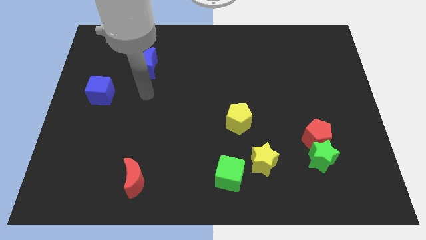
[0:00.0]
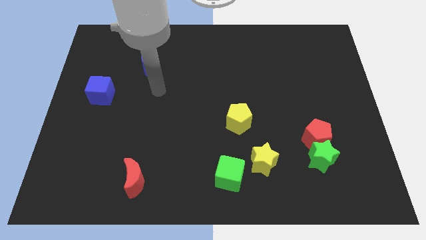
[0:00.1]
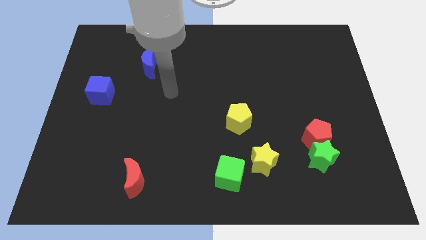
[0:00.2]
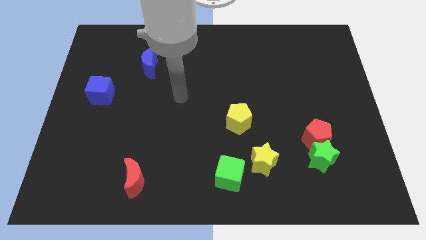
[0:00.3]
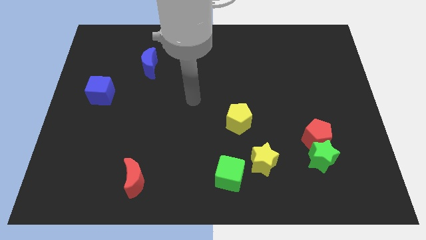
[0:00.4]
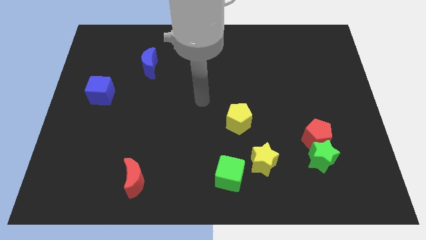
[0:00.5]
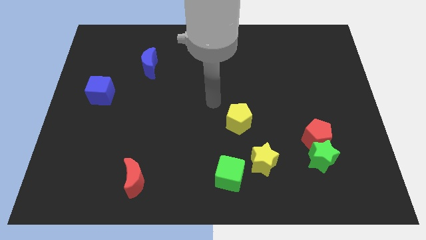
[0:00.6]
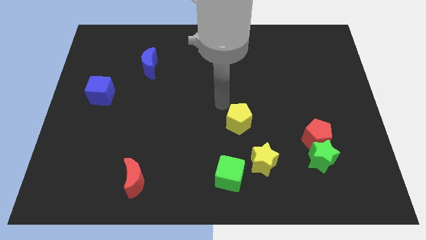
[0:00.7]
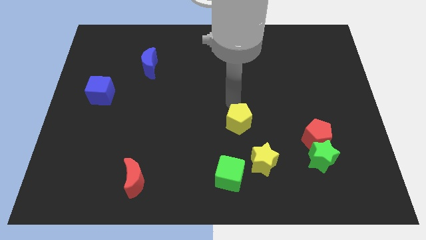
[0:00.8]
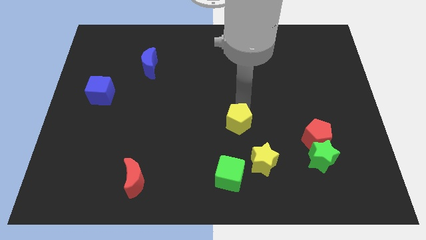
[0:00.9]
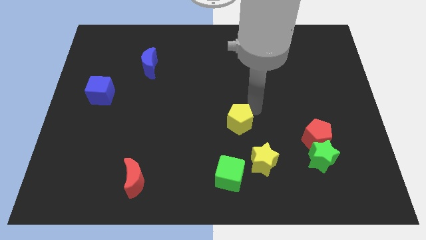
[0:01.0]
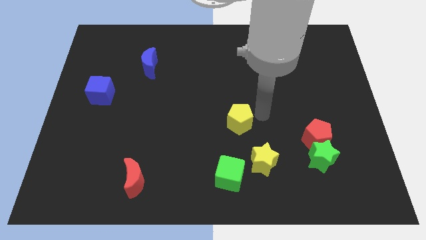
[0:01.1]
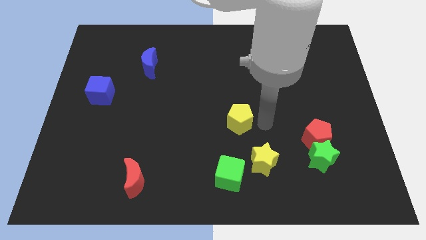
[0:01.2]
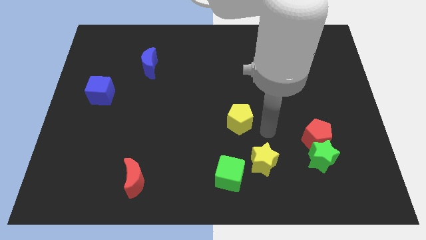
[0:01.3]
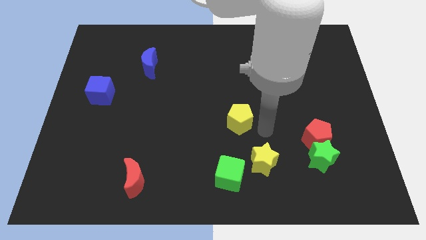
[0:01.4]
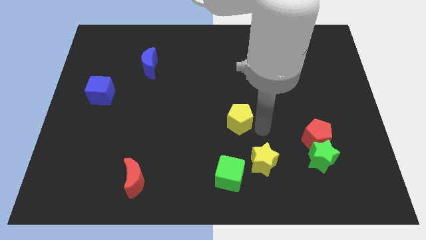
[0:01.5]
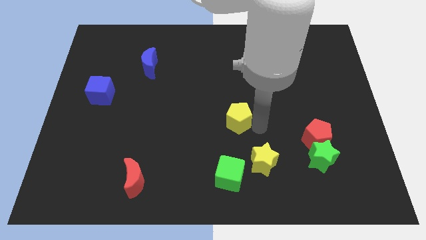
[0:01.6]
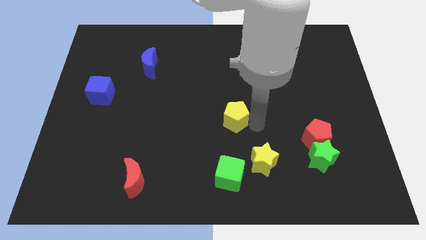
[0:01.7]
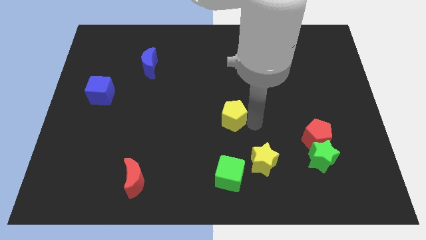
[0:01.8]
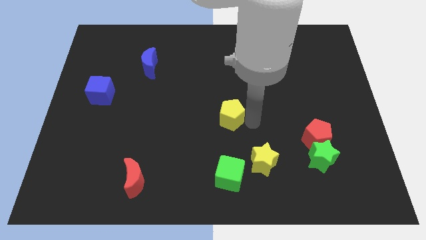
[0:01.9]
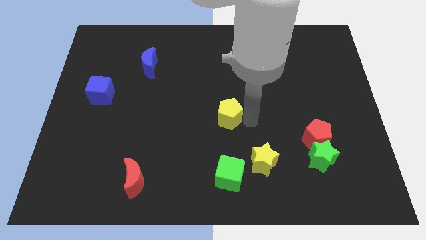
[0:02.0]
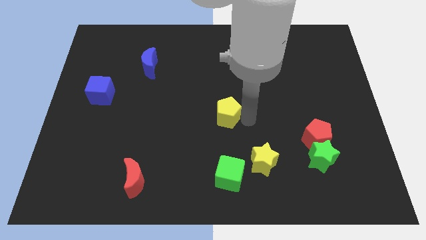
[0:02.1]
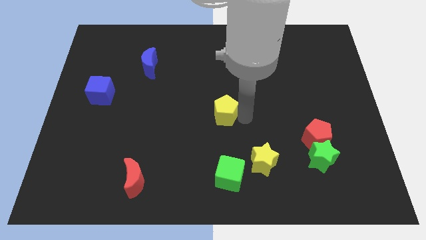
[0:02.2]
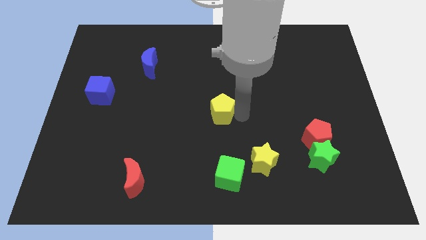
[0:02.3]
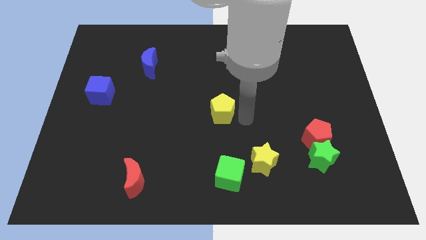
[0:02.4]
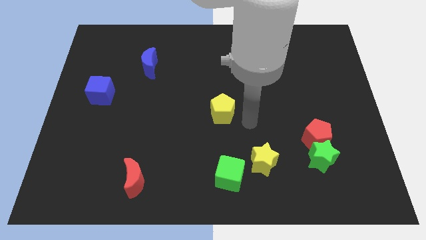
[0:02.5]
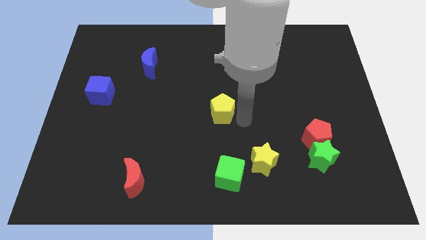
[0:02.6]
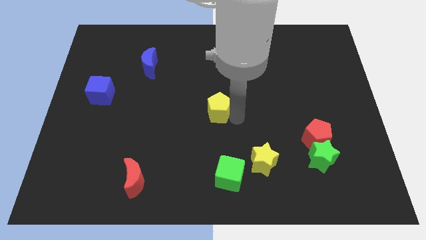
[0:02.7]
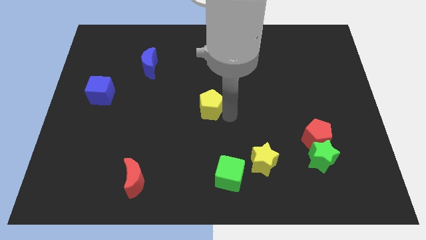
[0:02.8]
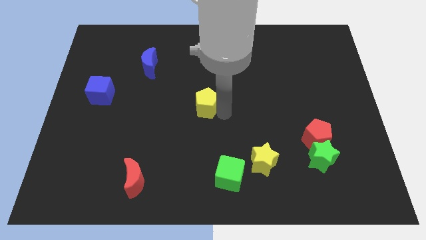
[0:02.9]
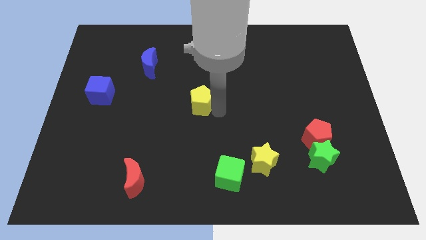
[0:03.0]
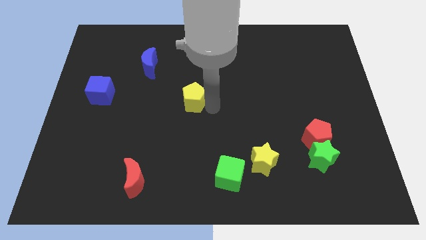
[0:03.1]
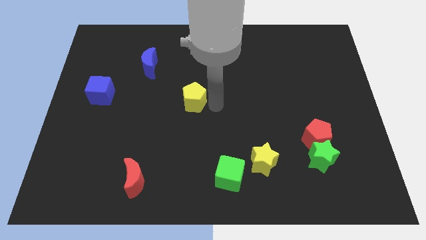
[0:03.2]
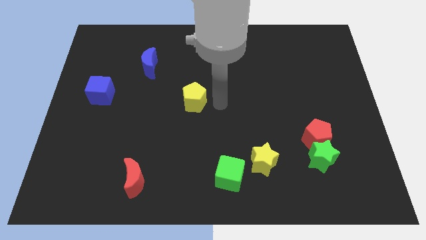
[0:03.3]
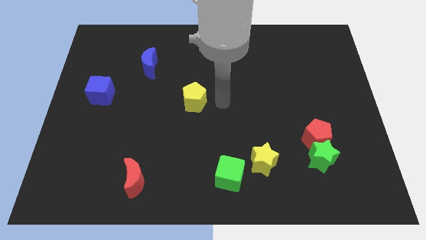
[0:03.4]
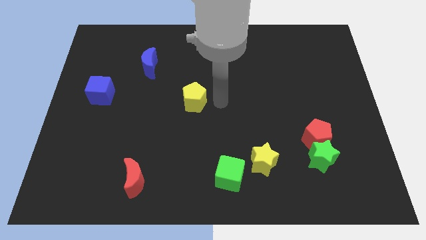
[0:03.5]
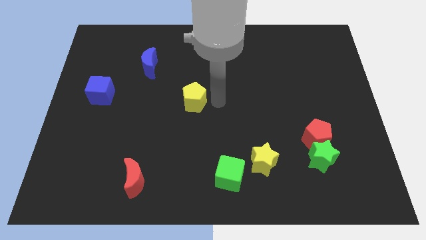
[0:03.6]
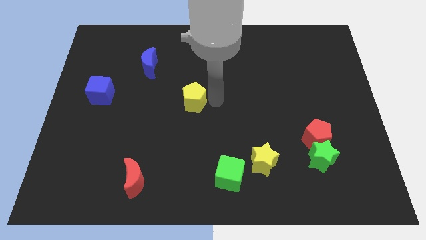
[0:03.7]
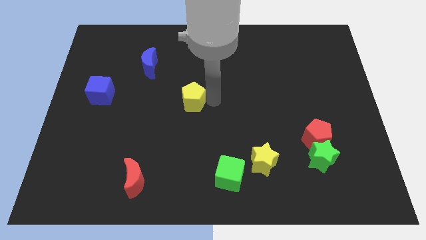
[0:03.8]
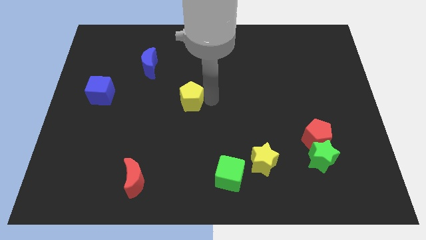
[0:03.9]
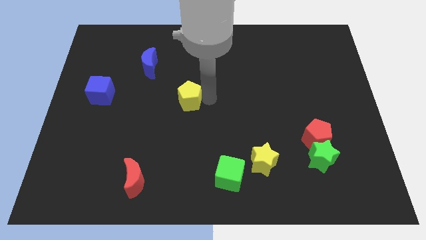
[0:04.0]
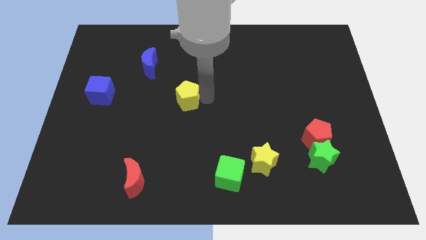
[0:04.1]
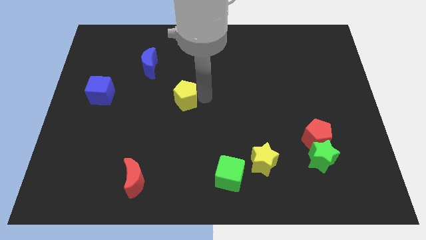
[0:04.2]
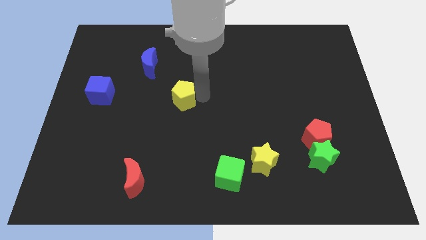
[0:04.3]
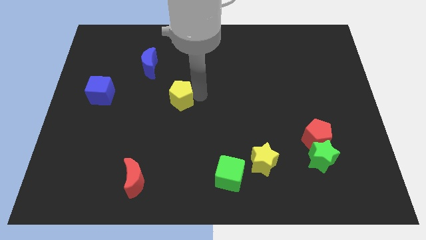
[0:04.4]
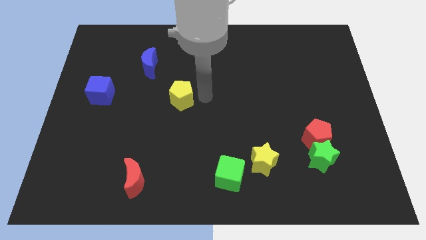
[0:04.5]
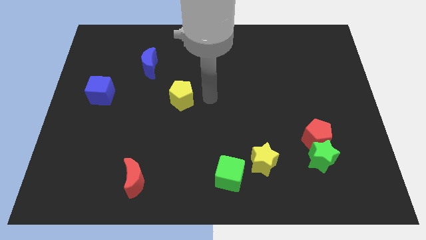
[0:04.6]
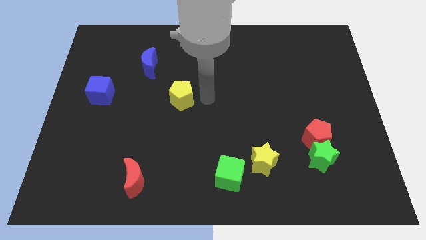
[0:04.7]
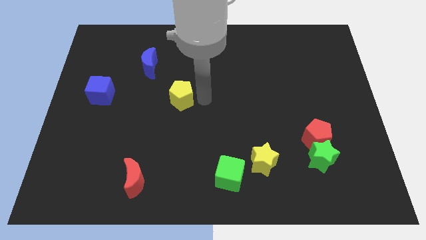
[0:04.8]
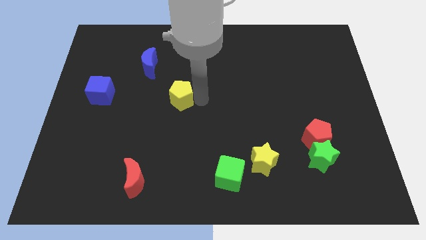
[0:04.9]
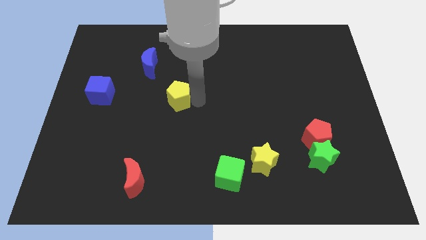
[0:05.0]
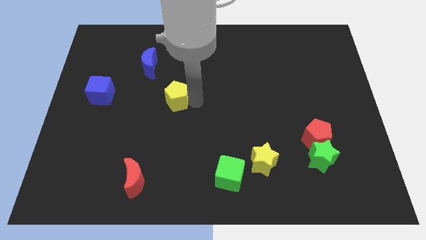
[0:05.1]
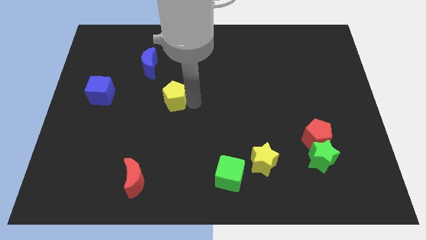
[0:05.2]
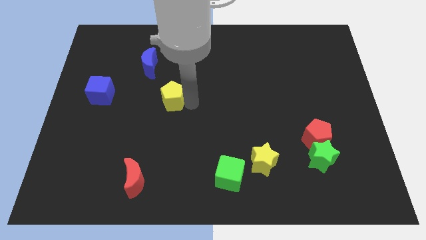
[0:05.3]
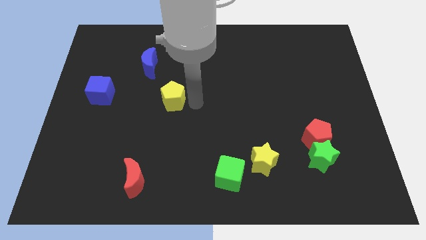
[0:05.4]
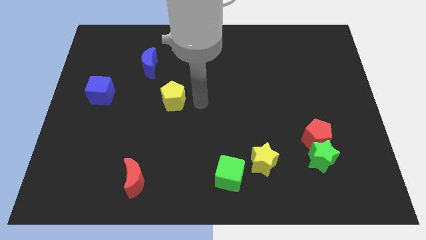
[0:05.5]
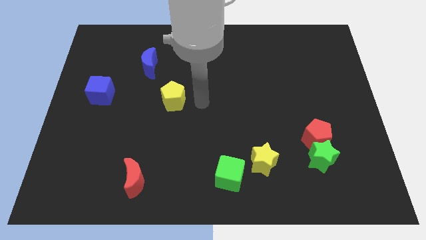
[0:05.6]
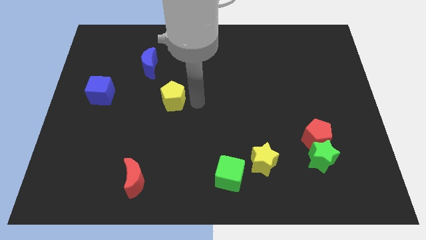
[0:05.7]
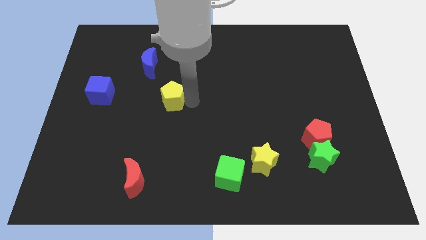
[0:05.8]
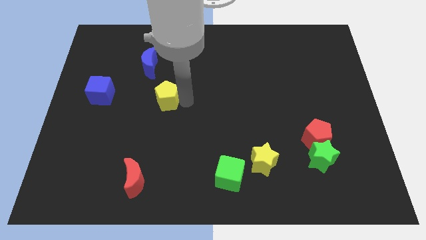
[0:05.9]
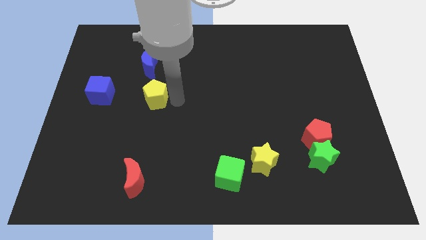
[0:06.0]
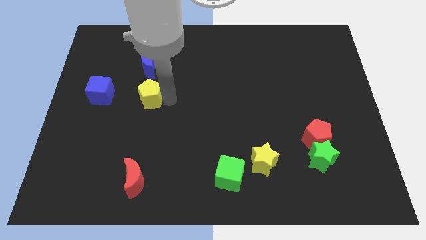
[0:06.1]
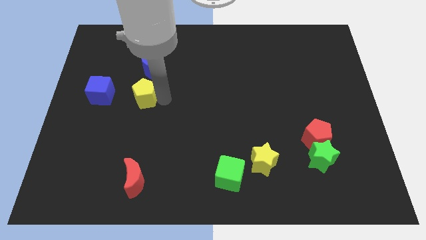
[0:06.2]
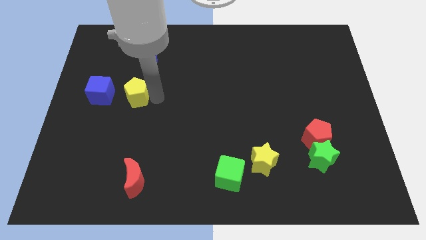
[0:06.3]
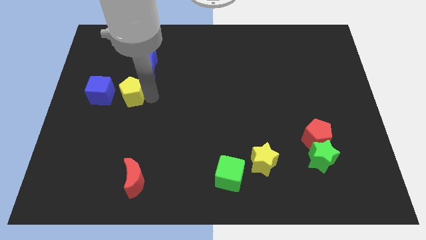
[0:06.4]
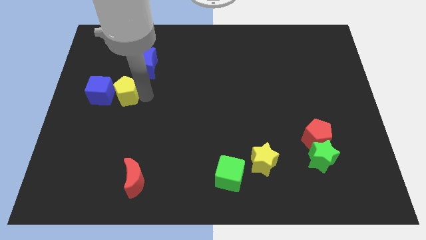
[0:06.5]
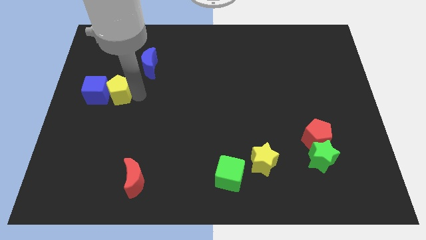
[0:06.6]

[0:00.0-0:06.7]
move the yellow pentagon to the blue cube

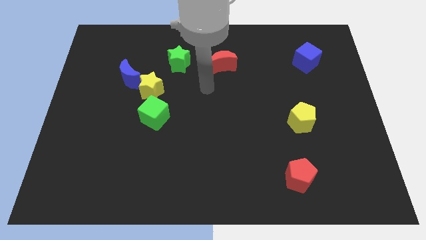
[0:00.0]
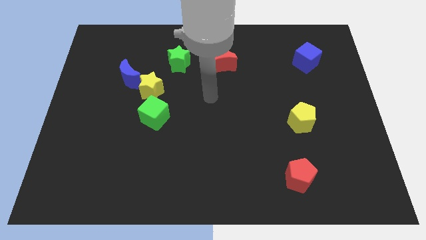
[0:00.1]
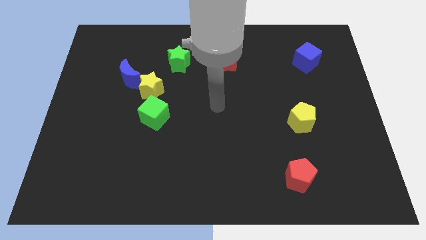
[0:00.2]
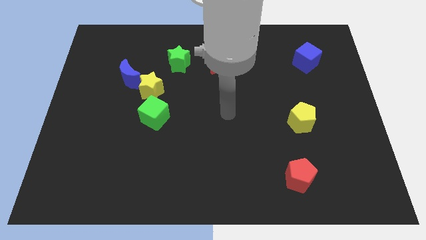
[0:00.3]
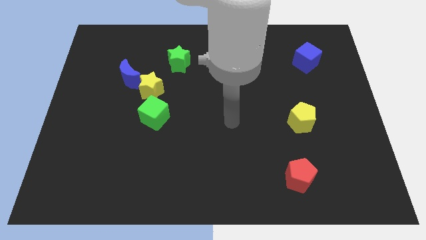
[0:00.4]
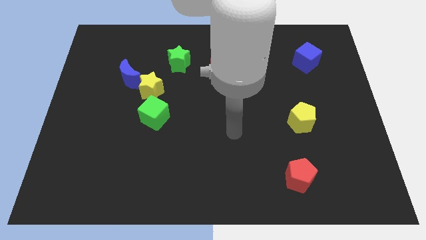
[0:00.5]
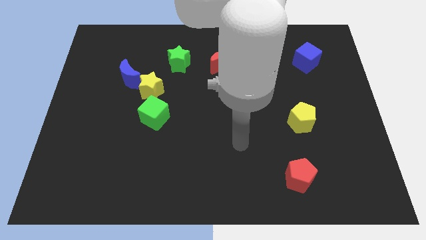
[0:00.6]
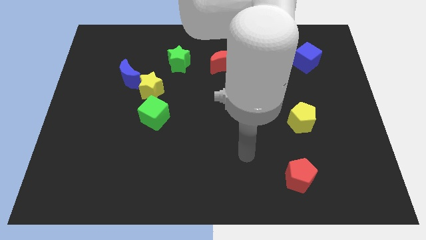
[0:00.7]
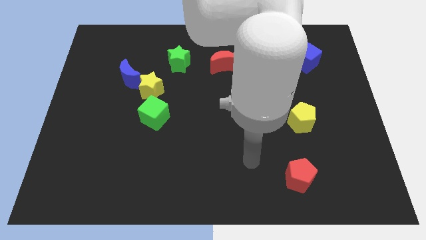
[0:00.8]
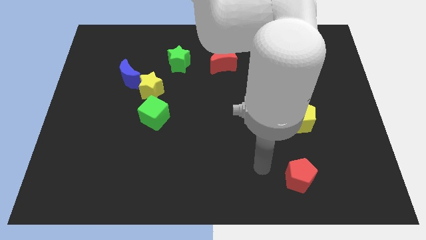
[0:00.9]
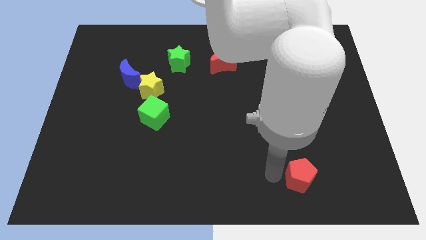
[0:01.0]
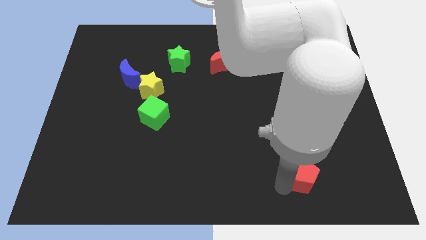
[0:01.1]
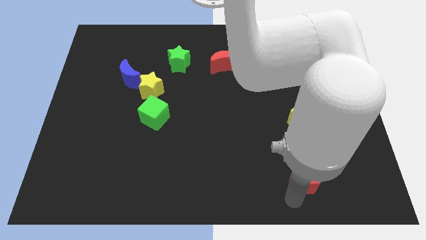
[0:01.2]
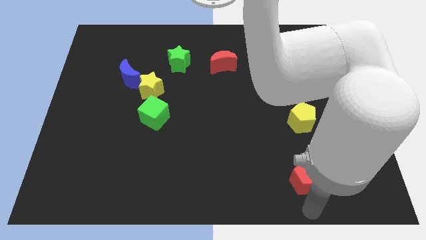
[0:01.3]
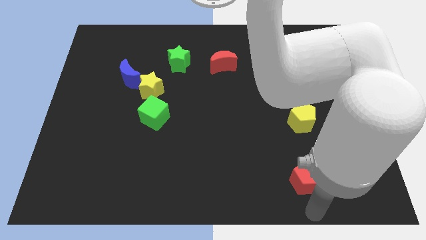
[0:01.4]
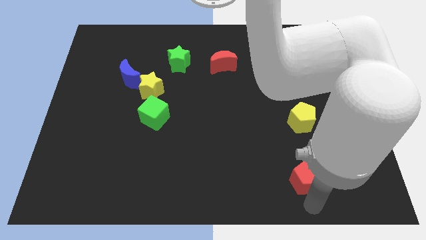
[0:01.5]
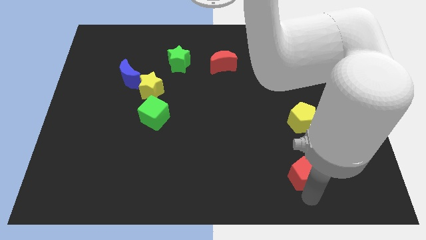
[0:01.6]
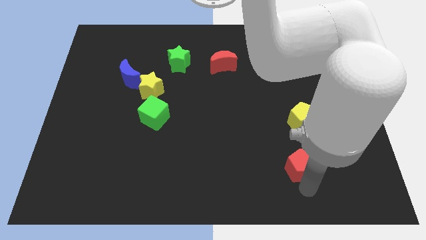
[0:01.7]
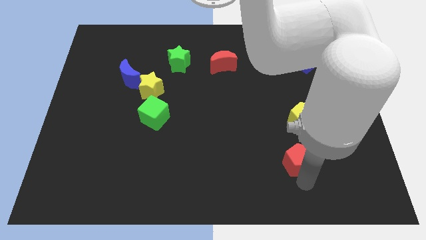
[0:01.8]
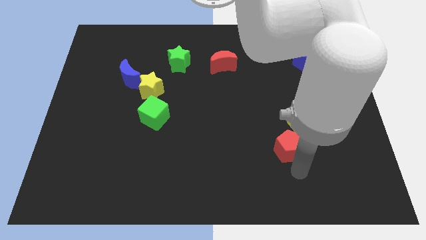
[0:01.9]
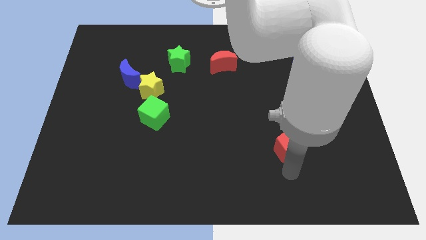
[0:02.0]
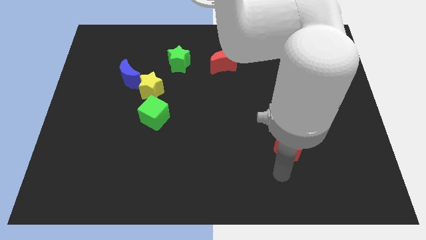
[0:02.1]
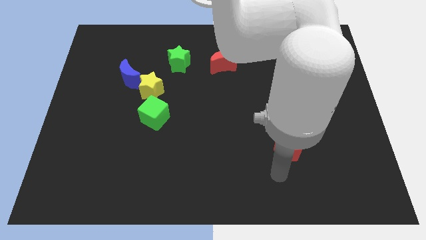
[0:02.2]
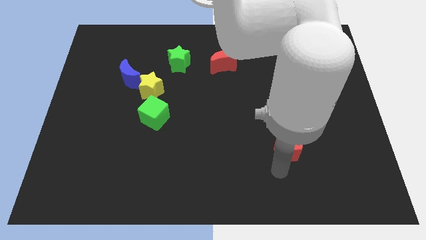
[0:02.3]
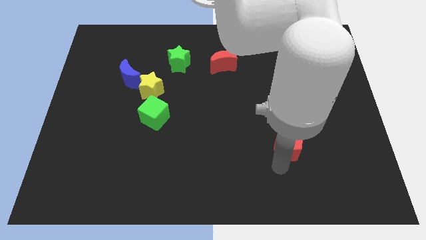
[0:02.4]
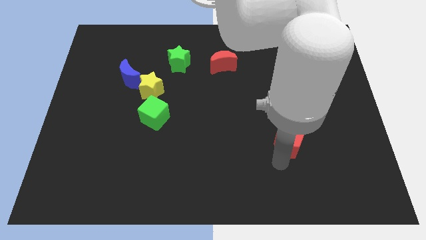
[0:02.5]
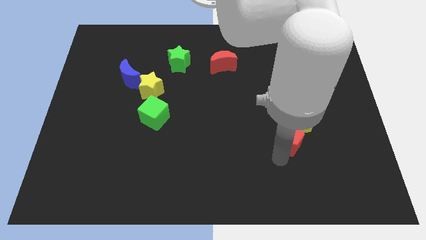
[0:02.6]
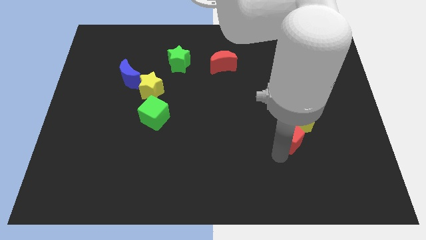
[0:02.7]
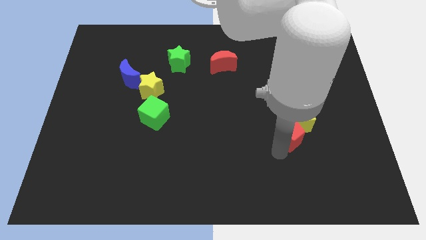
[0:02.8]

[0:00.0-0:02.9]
push the red pentagon to the yellow pentagon
